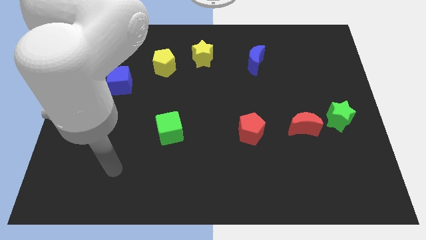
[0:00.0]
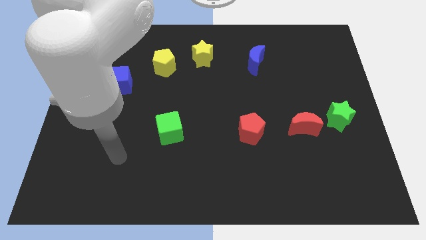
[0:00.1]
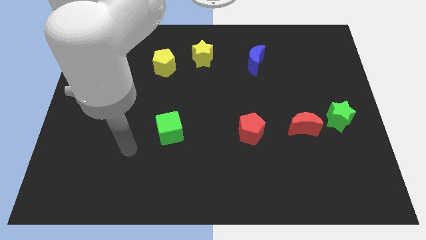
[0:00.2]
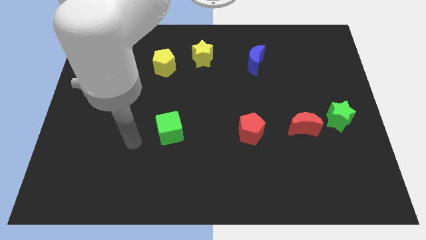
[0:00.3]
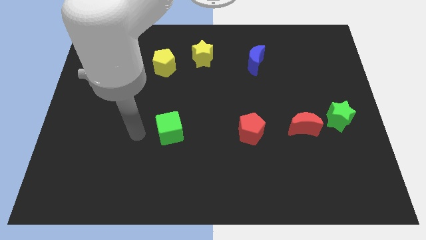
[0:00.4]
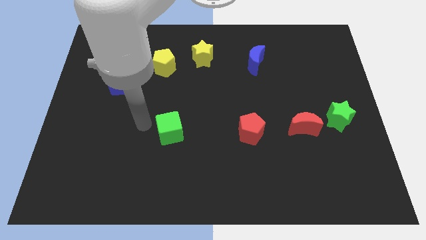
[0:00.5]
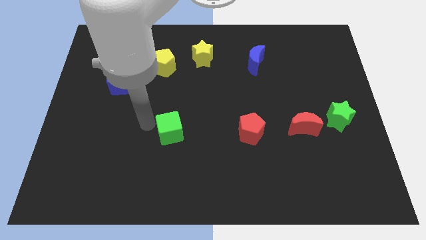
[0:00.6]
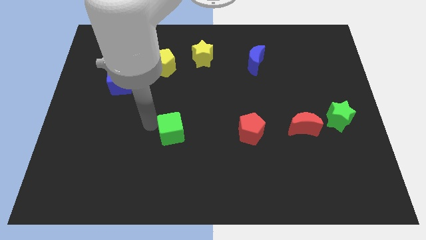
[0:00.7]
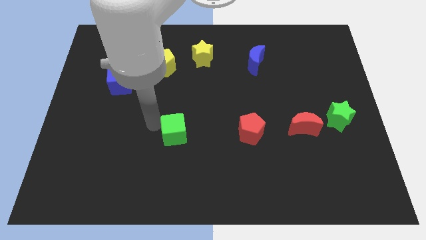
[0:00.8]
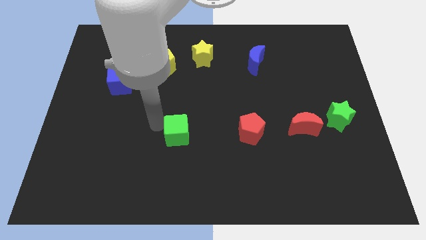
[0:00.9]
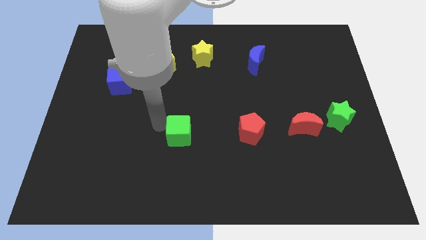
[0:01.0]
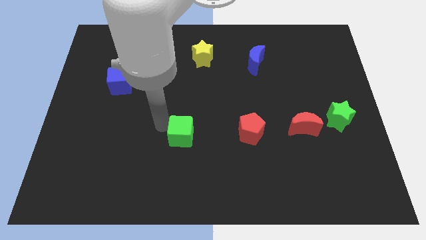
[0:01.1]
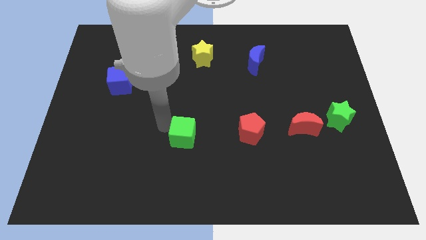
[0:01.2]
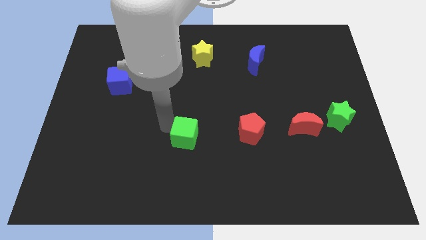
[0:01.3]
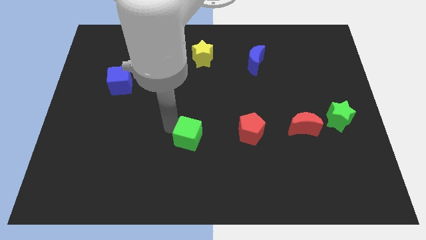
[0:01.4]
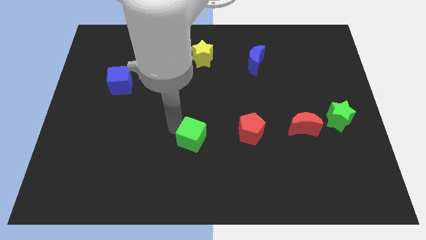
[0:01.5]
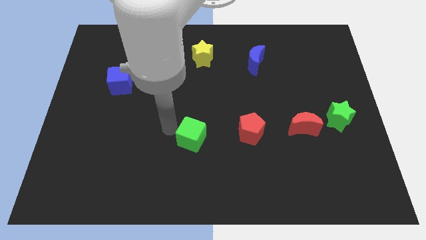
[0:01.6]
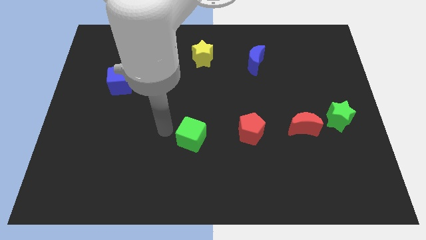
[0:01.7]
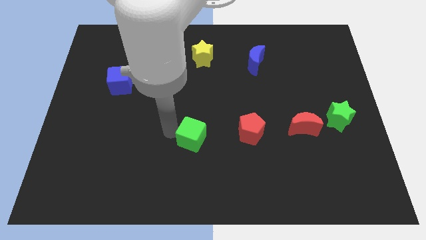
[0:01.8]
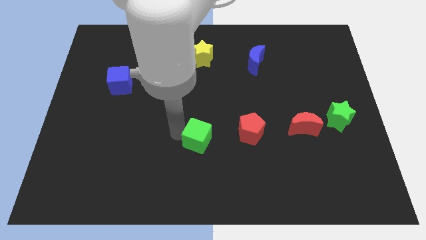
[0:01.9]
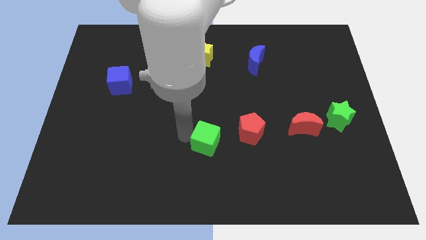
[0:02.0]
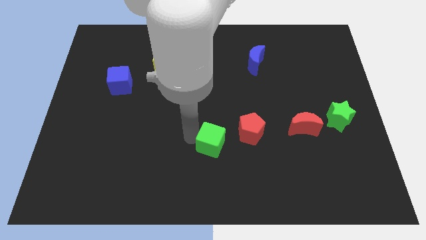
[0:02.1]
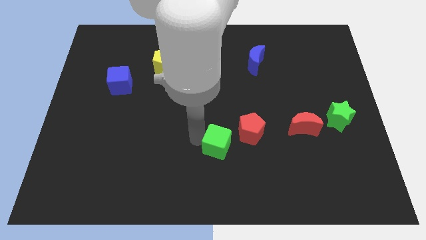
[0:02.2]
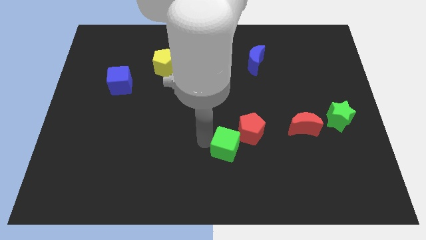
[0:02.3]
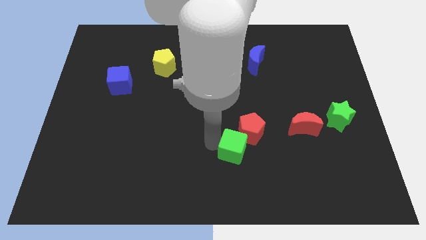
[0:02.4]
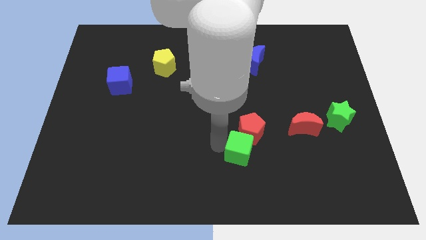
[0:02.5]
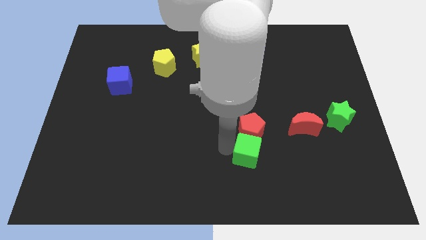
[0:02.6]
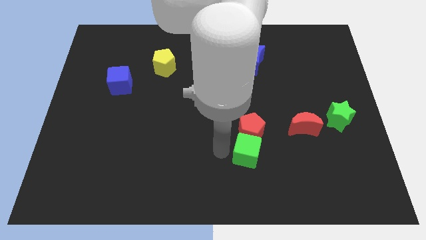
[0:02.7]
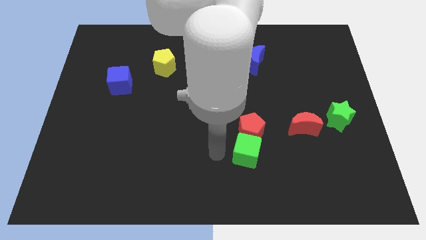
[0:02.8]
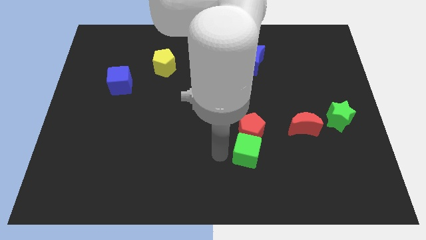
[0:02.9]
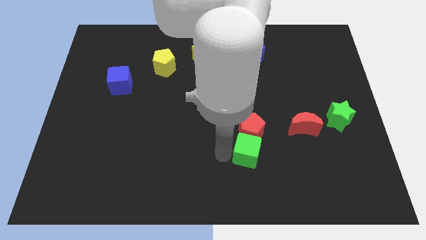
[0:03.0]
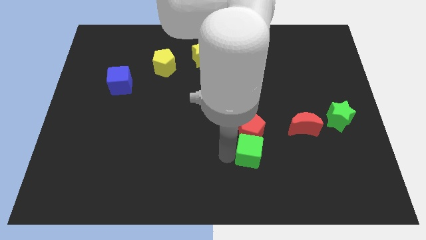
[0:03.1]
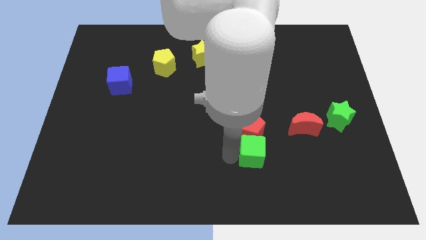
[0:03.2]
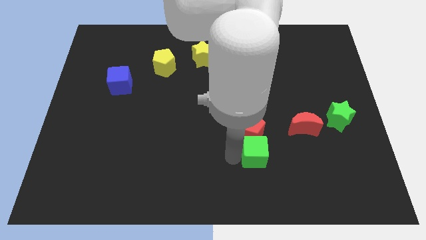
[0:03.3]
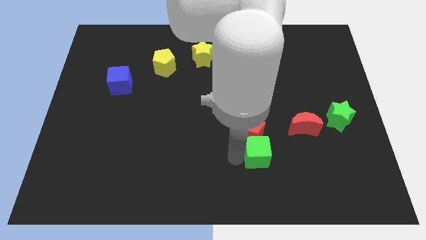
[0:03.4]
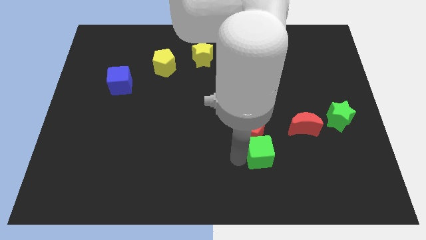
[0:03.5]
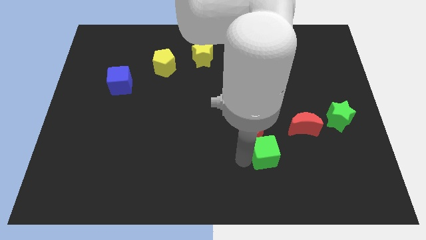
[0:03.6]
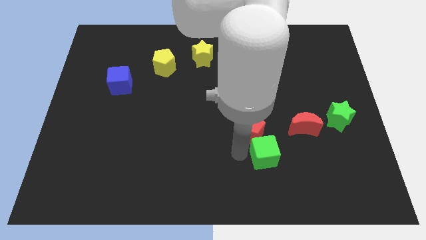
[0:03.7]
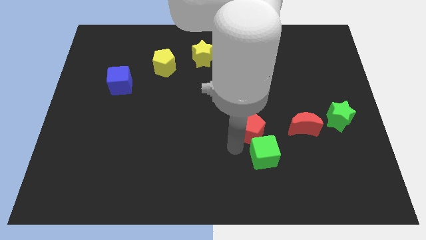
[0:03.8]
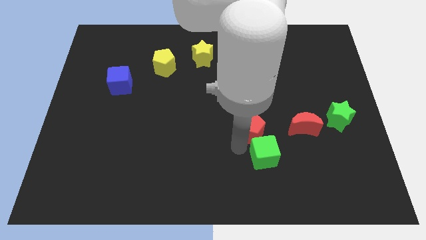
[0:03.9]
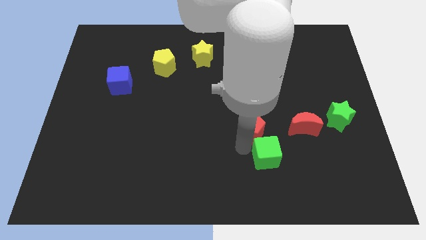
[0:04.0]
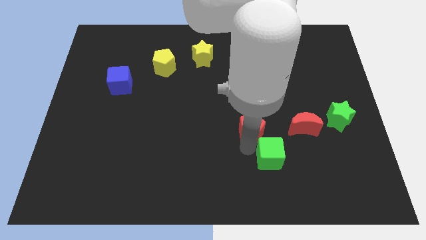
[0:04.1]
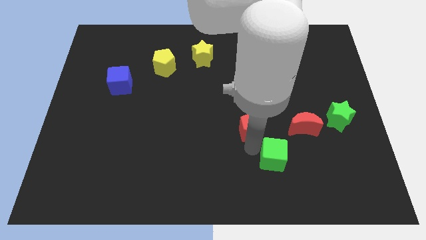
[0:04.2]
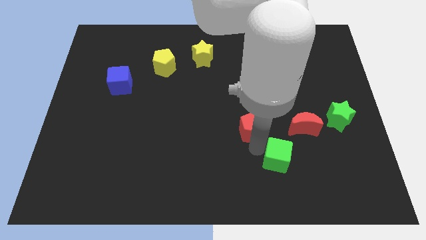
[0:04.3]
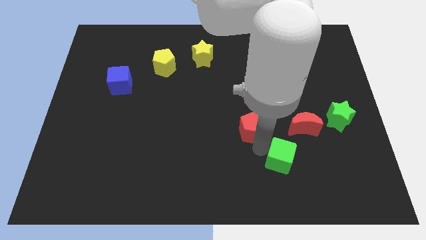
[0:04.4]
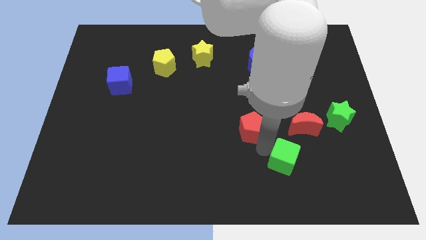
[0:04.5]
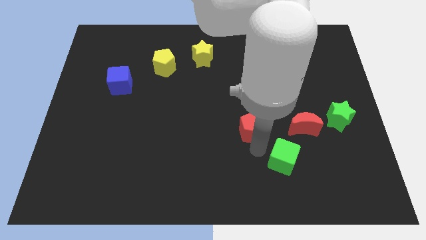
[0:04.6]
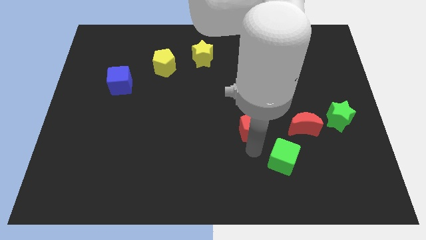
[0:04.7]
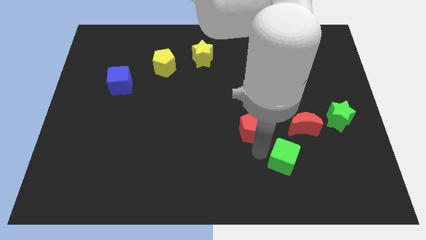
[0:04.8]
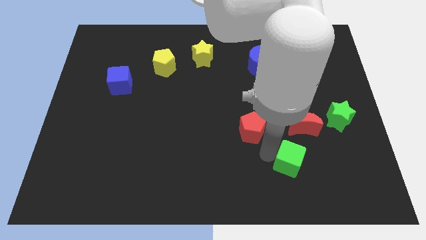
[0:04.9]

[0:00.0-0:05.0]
slide the green cube below the red moon

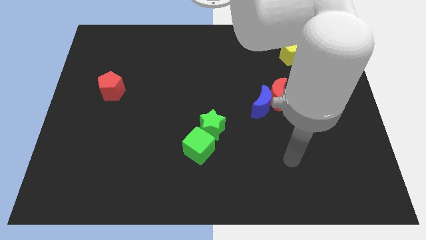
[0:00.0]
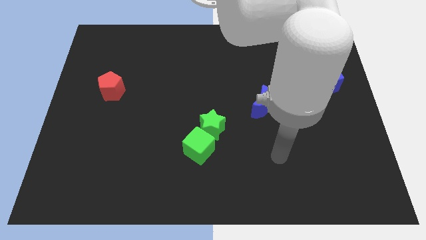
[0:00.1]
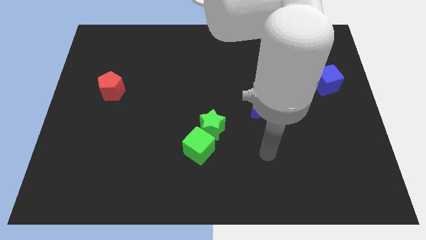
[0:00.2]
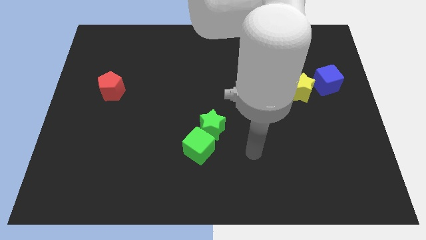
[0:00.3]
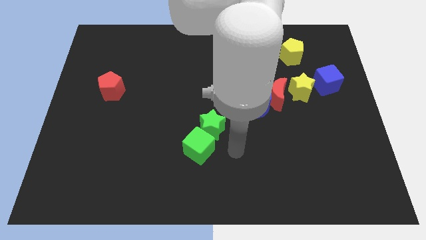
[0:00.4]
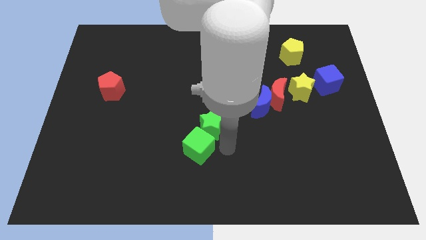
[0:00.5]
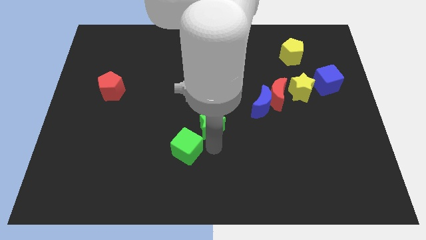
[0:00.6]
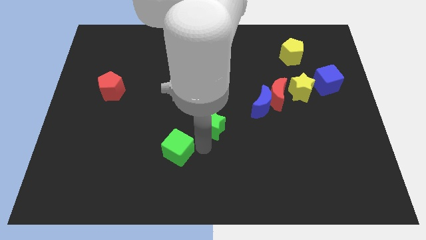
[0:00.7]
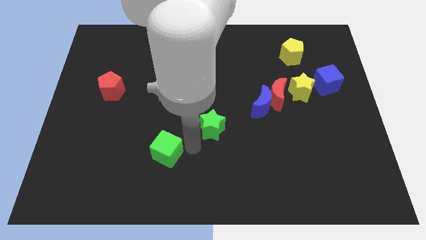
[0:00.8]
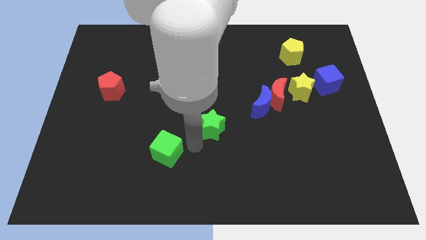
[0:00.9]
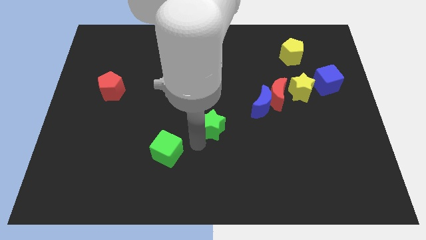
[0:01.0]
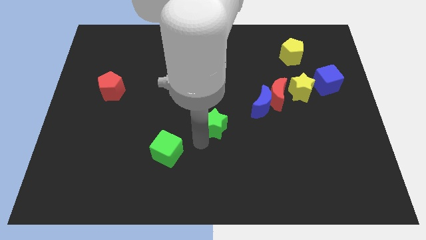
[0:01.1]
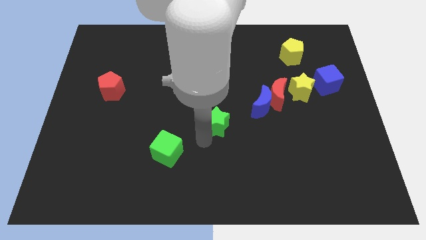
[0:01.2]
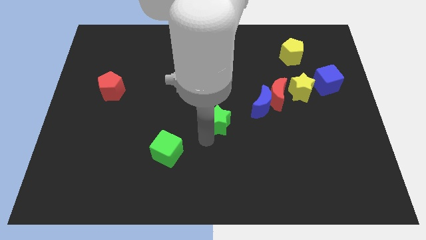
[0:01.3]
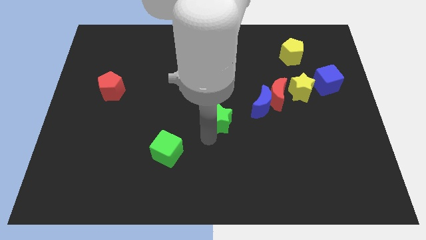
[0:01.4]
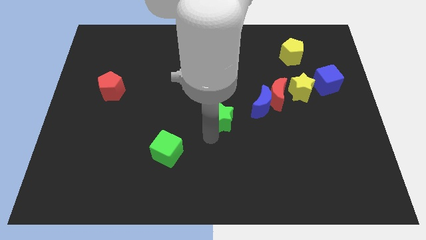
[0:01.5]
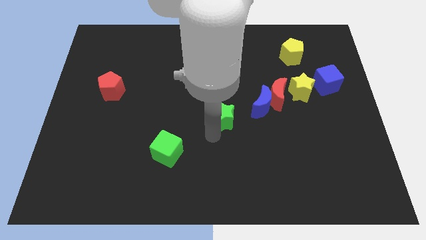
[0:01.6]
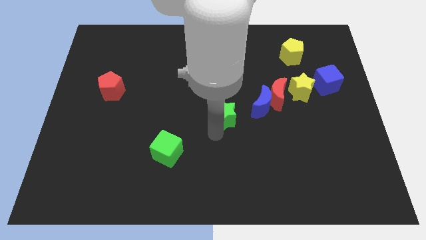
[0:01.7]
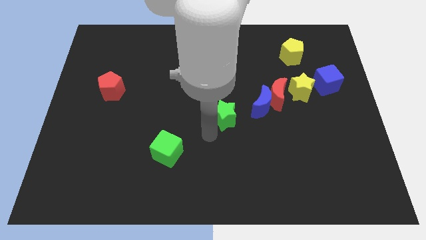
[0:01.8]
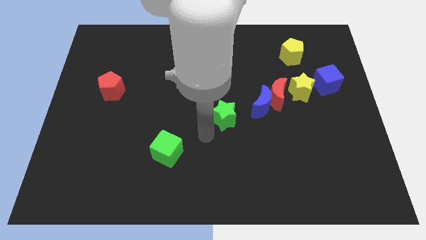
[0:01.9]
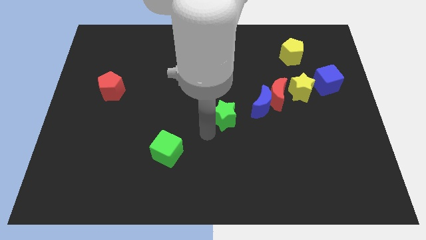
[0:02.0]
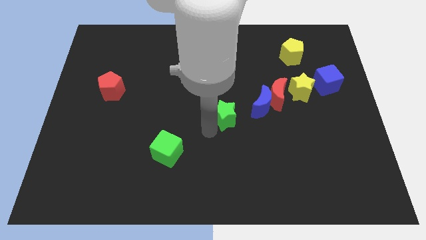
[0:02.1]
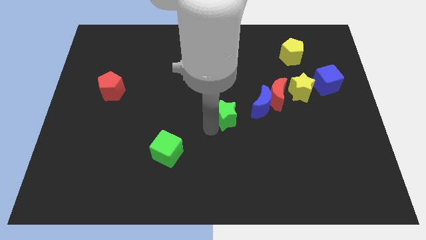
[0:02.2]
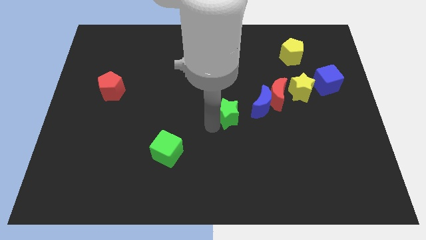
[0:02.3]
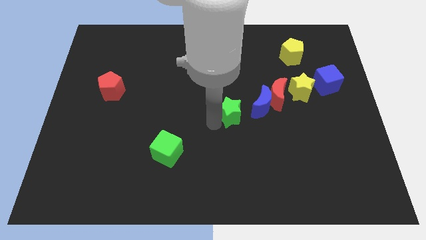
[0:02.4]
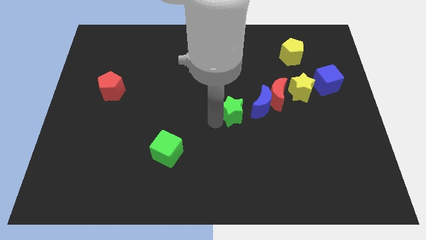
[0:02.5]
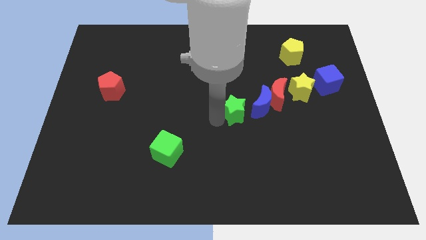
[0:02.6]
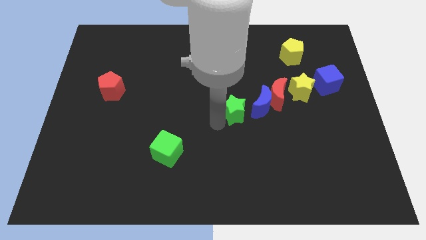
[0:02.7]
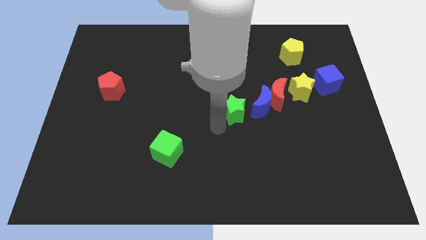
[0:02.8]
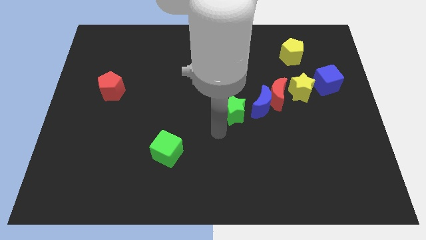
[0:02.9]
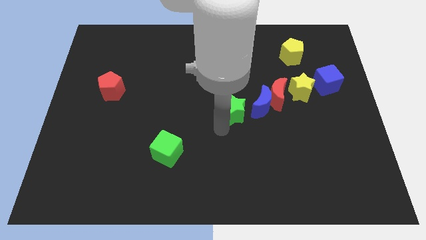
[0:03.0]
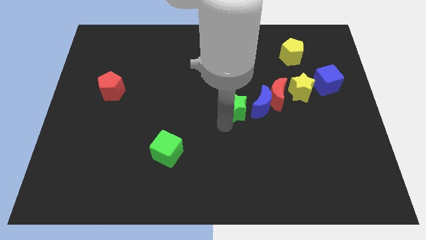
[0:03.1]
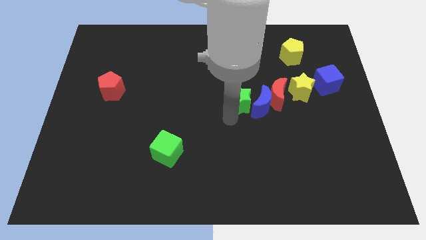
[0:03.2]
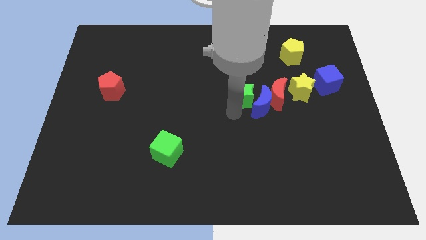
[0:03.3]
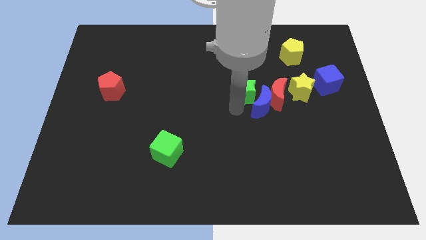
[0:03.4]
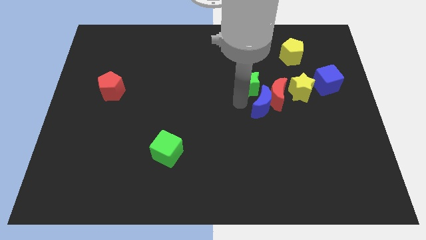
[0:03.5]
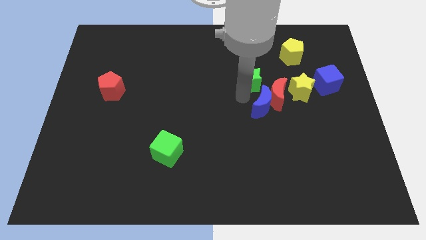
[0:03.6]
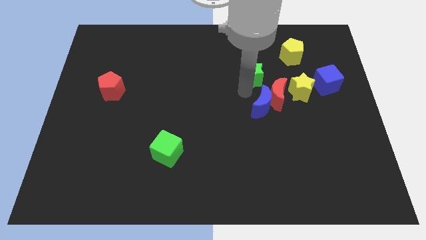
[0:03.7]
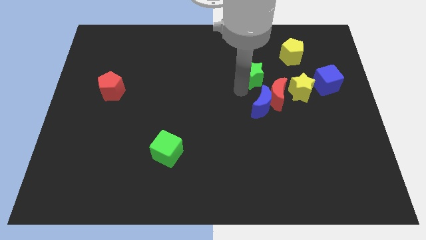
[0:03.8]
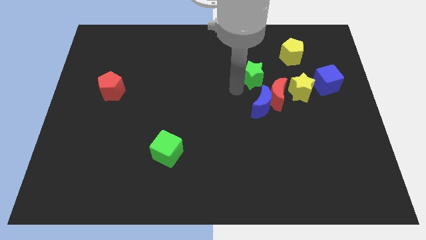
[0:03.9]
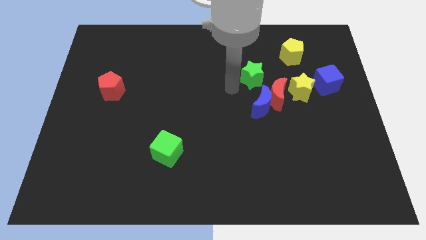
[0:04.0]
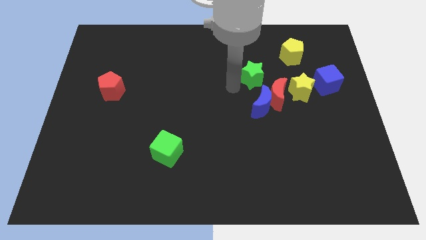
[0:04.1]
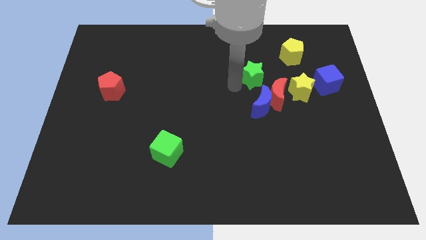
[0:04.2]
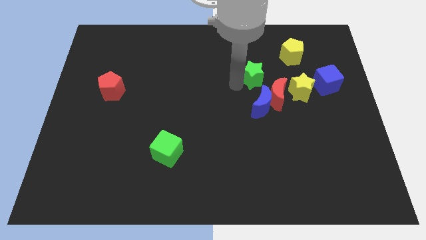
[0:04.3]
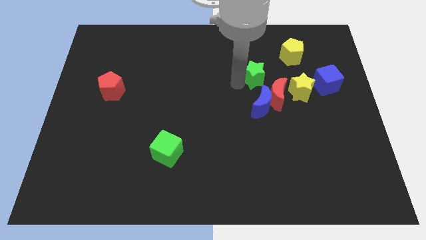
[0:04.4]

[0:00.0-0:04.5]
put the green star to the top side of the red moon
